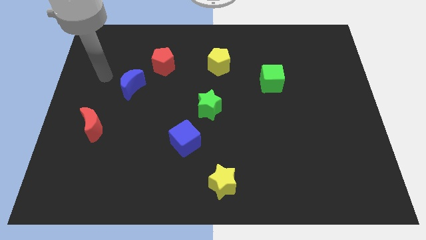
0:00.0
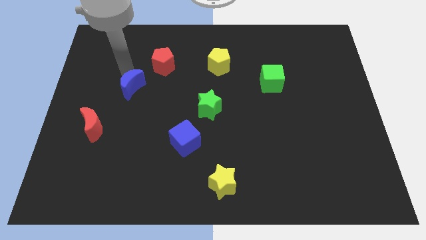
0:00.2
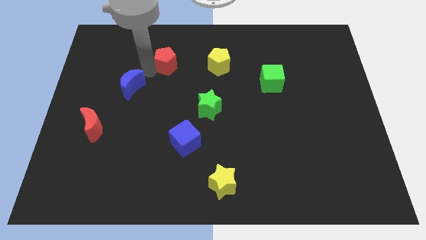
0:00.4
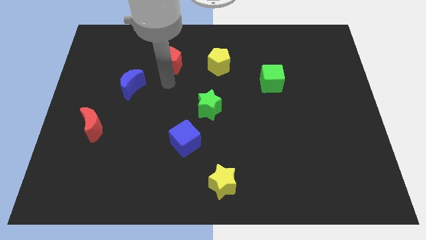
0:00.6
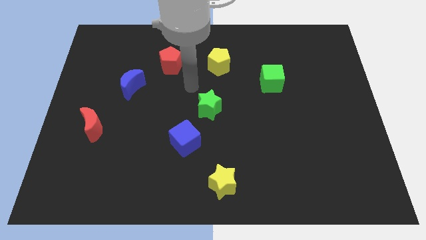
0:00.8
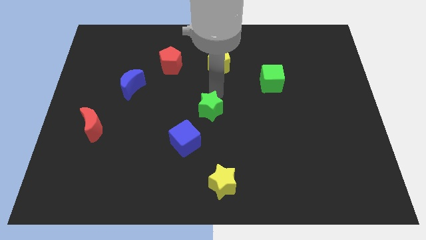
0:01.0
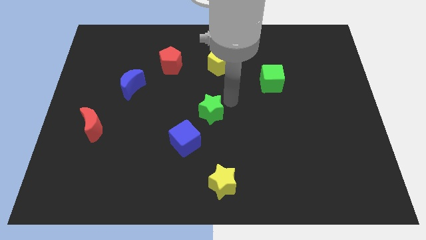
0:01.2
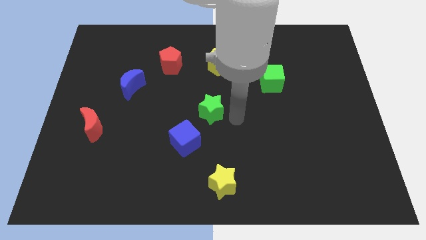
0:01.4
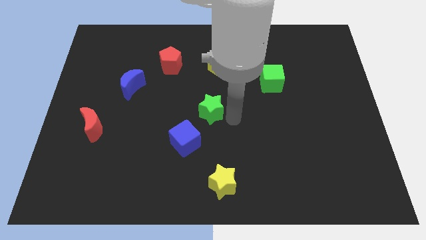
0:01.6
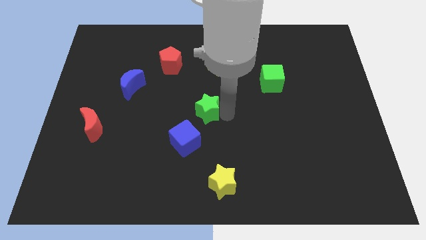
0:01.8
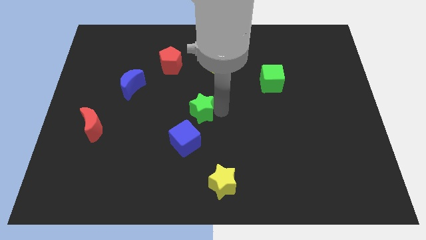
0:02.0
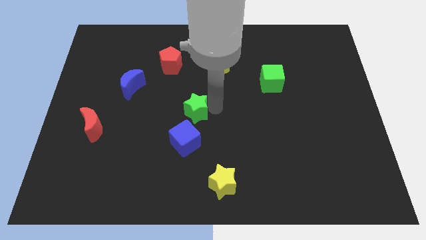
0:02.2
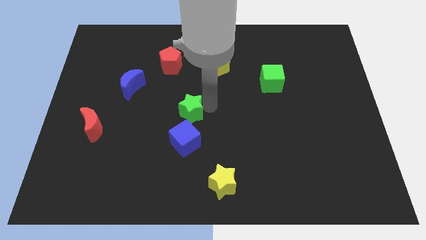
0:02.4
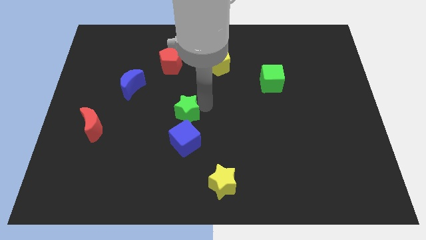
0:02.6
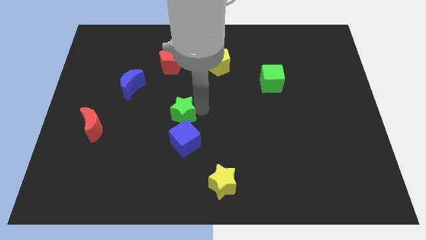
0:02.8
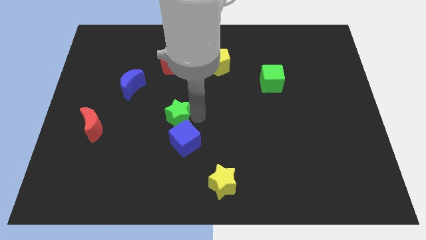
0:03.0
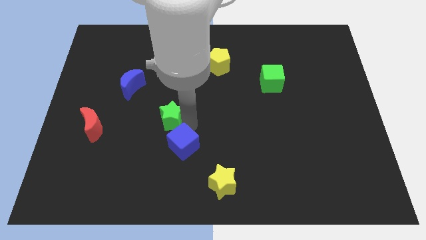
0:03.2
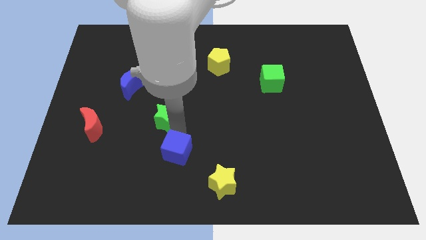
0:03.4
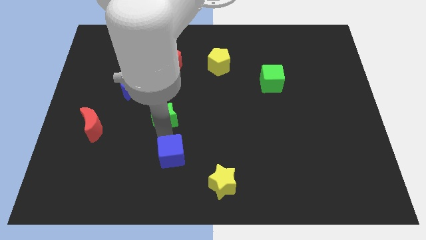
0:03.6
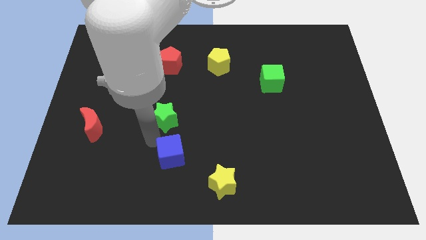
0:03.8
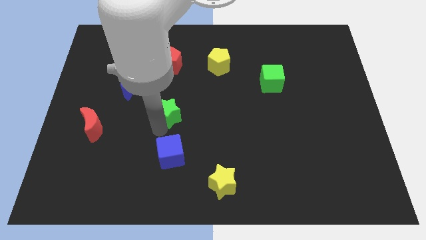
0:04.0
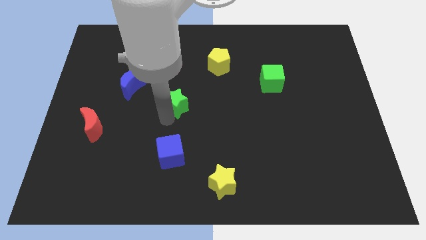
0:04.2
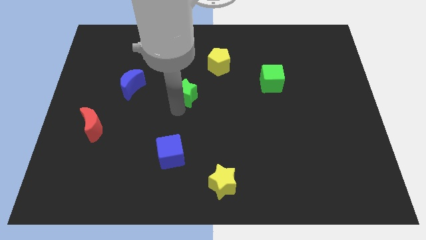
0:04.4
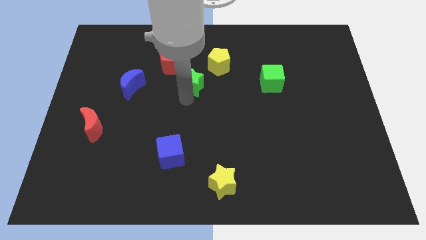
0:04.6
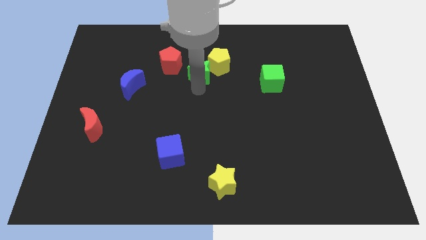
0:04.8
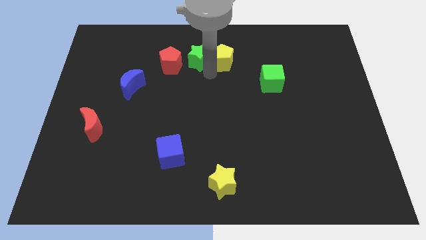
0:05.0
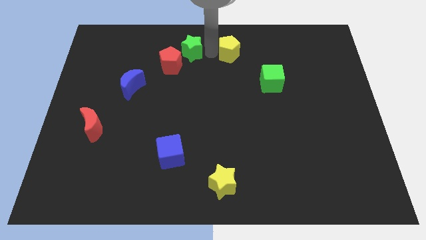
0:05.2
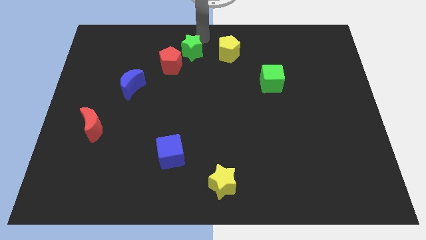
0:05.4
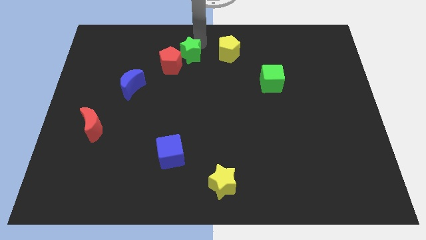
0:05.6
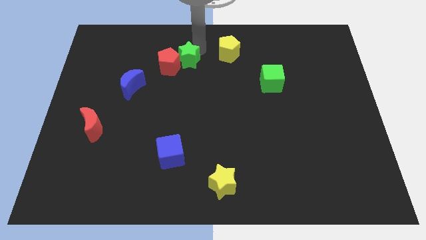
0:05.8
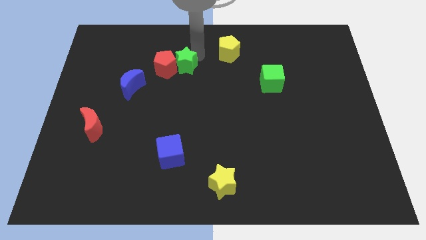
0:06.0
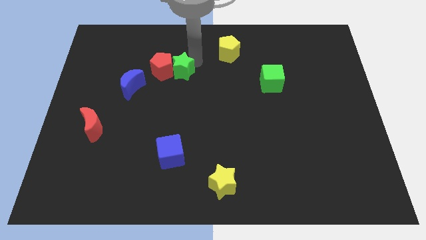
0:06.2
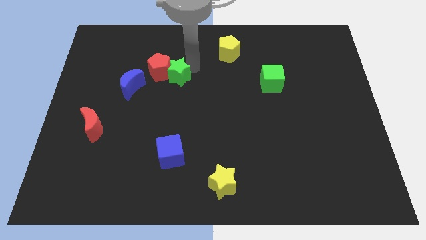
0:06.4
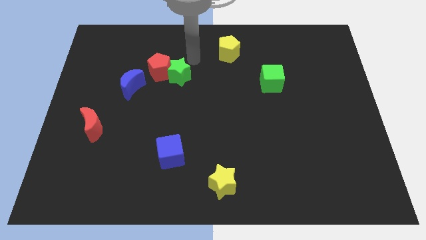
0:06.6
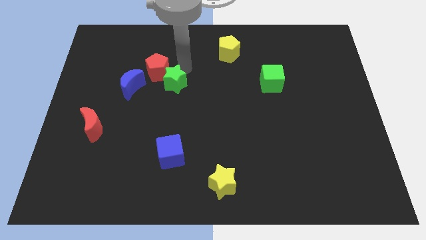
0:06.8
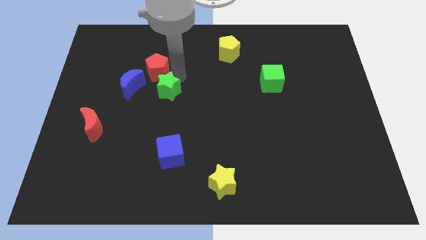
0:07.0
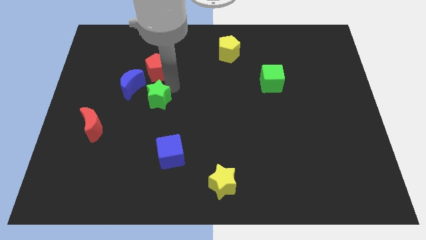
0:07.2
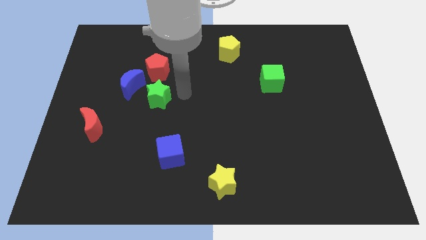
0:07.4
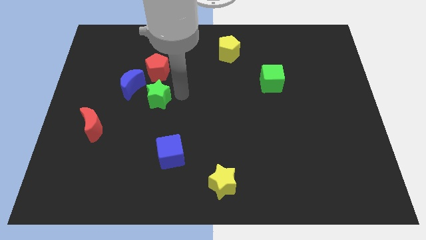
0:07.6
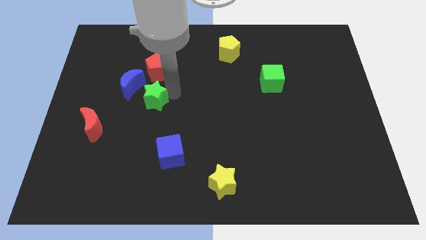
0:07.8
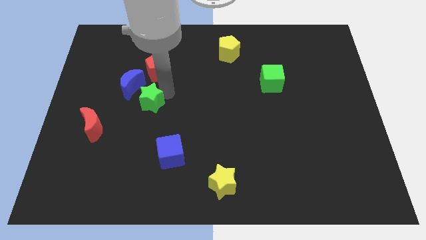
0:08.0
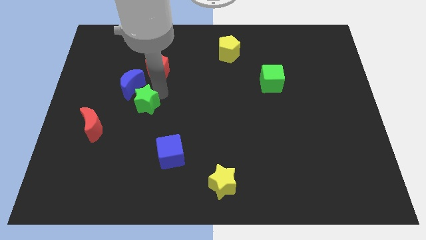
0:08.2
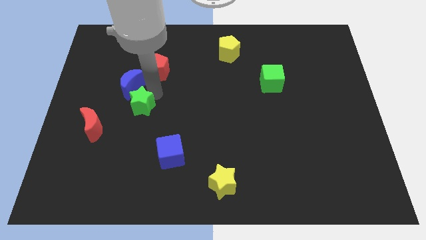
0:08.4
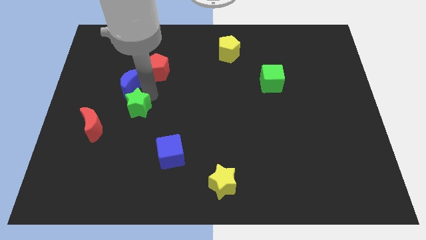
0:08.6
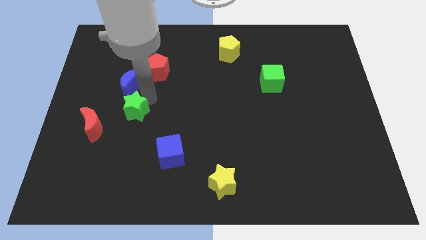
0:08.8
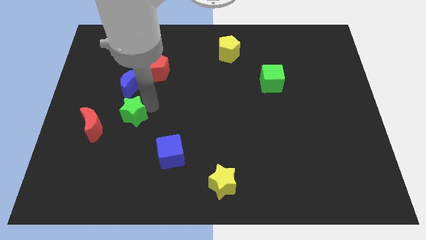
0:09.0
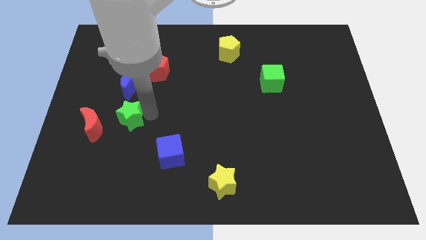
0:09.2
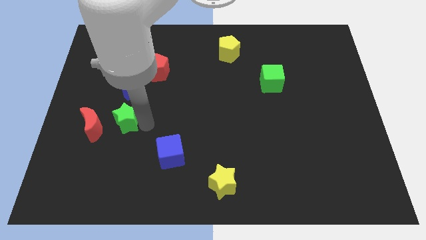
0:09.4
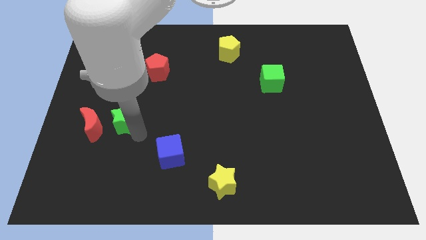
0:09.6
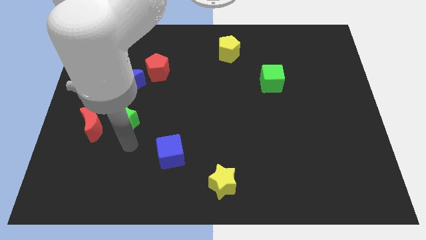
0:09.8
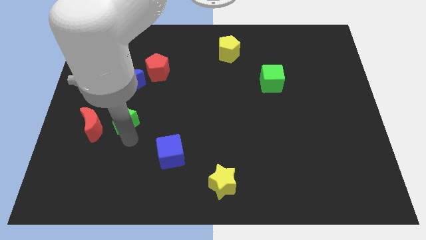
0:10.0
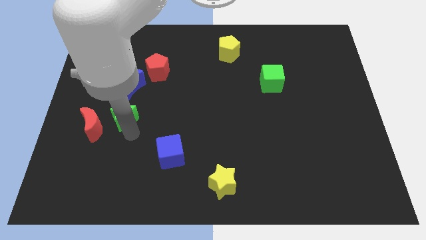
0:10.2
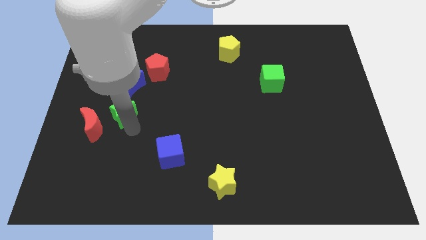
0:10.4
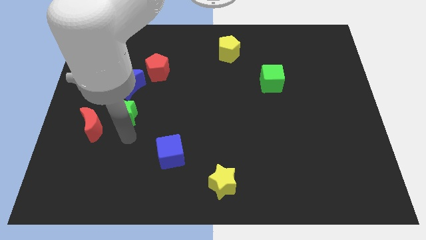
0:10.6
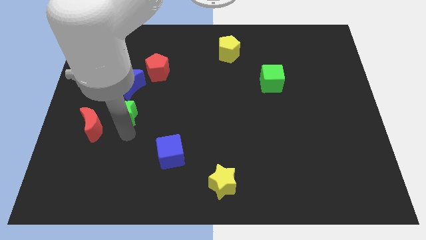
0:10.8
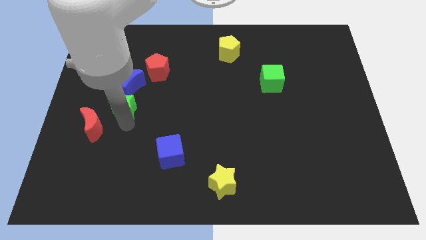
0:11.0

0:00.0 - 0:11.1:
slide the green star to the bottom left of the blue moon

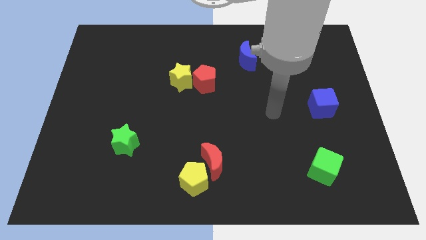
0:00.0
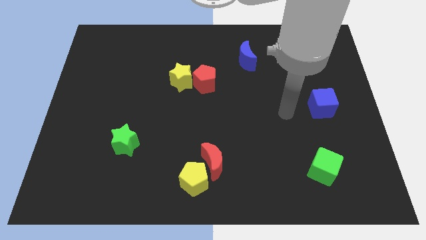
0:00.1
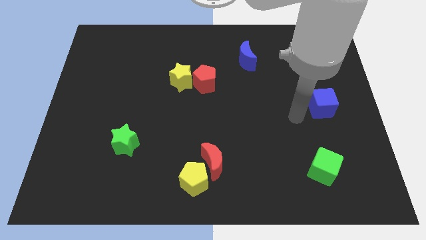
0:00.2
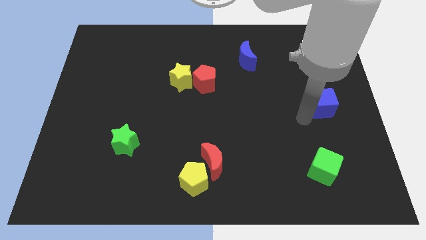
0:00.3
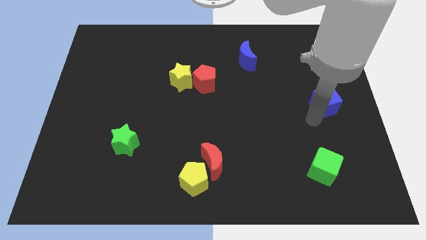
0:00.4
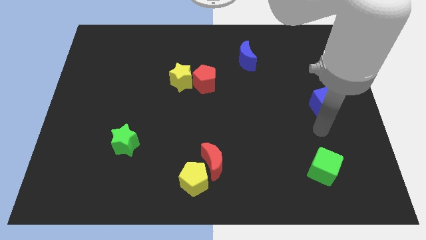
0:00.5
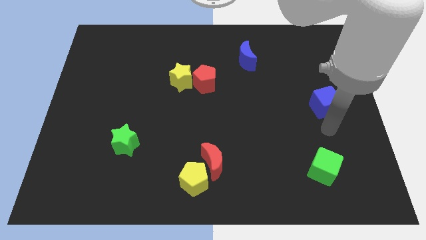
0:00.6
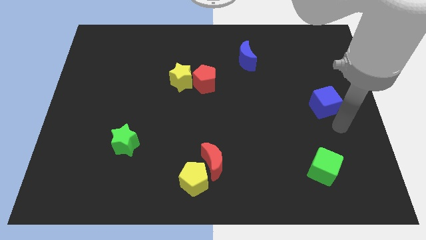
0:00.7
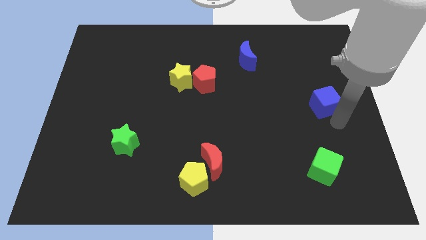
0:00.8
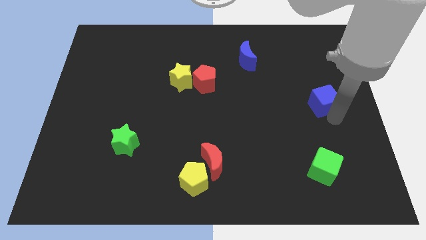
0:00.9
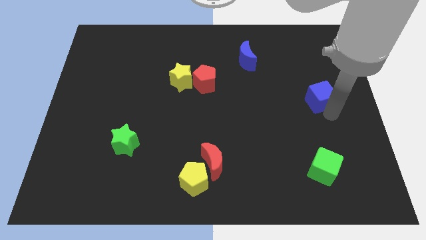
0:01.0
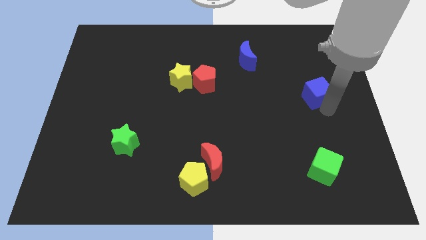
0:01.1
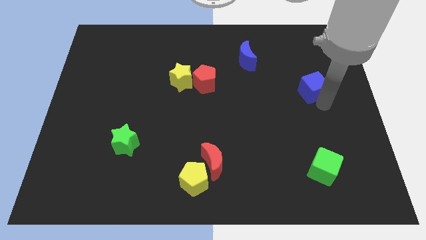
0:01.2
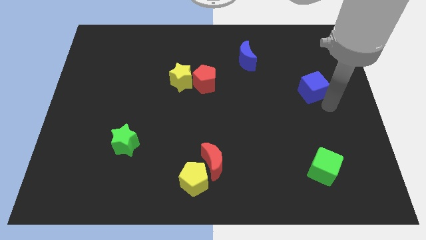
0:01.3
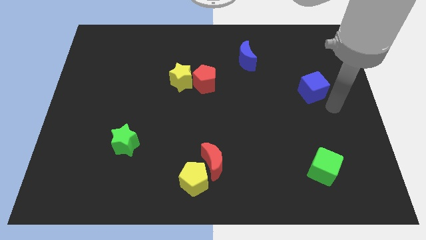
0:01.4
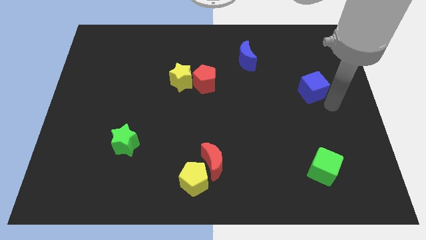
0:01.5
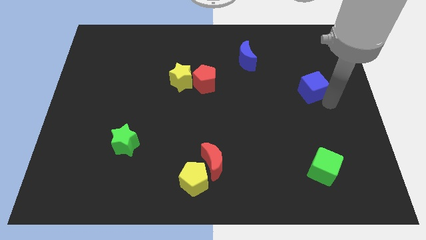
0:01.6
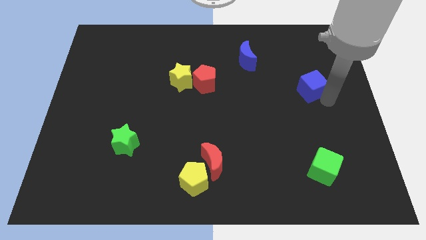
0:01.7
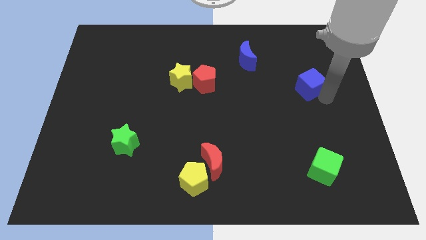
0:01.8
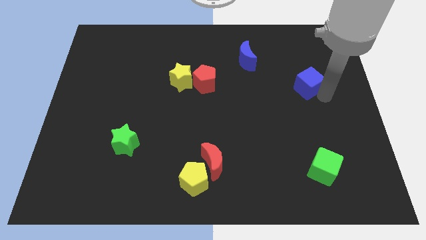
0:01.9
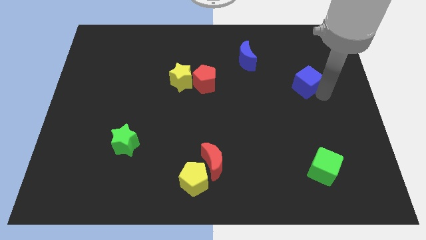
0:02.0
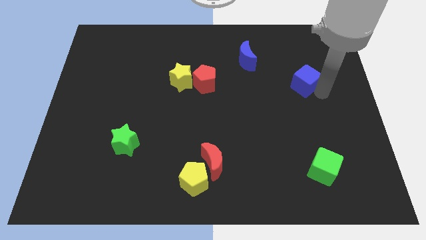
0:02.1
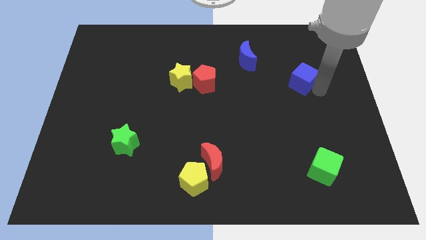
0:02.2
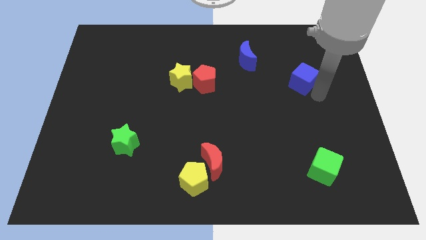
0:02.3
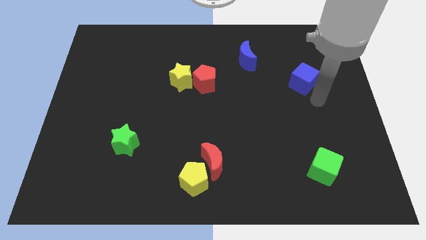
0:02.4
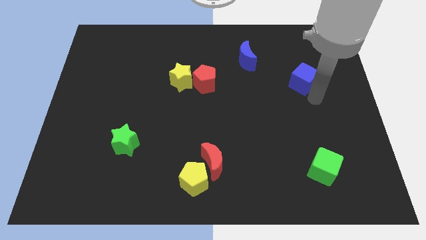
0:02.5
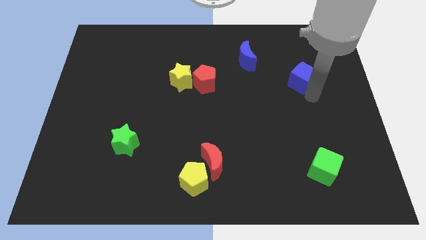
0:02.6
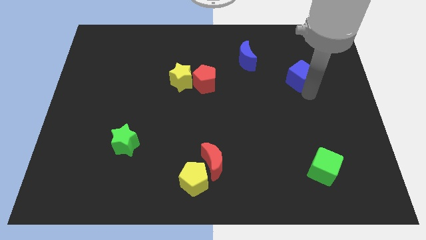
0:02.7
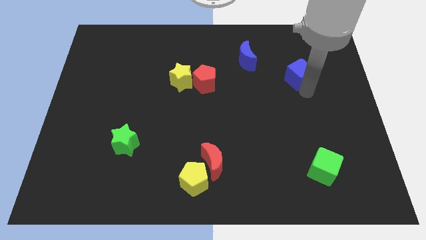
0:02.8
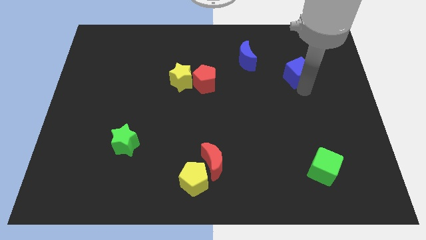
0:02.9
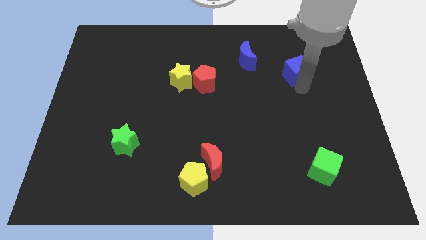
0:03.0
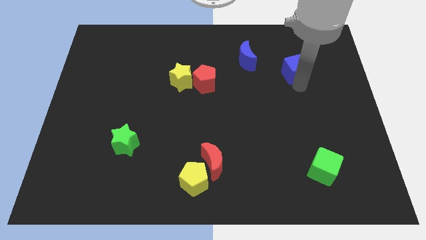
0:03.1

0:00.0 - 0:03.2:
move the blue cube to the right of the blue moon
